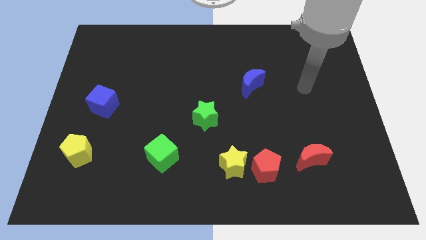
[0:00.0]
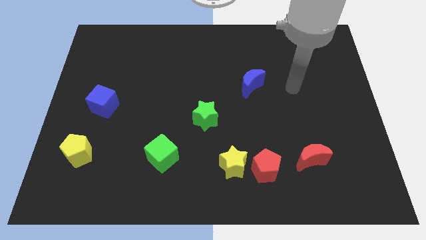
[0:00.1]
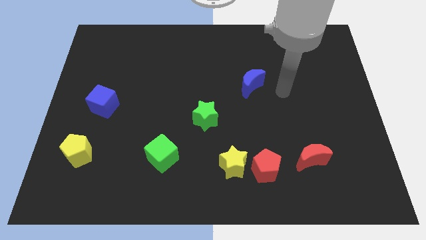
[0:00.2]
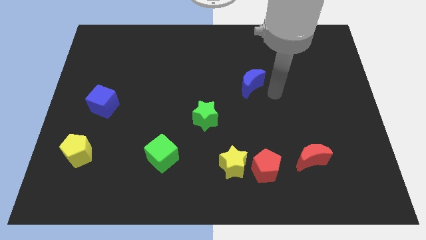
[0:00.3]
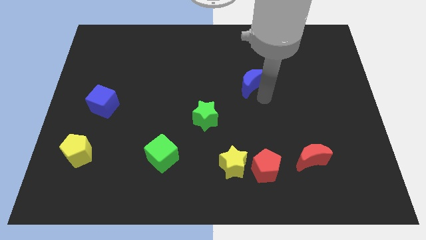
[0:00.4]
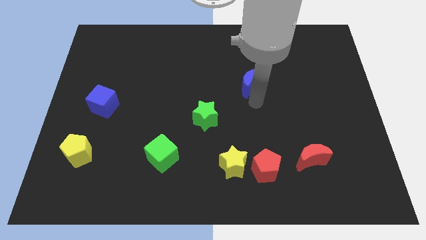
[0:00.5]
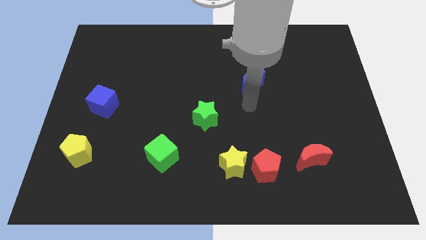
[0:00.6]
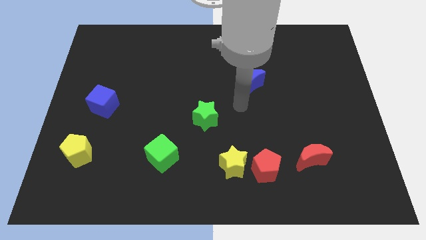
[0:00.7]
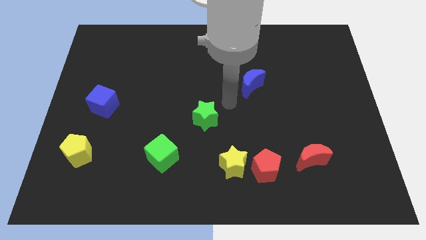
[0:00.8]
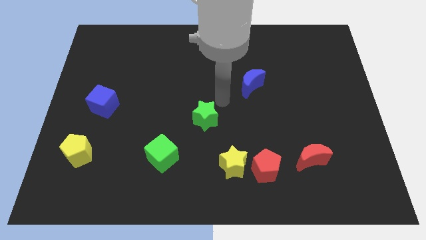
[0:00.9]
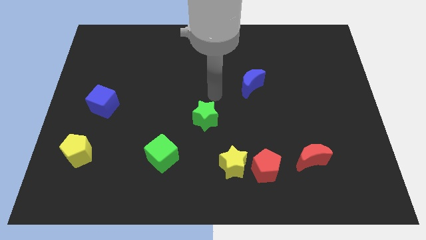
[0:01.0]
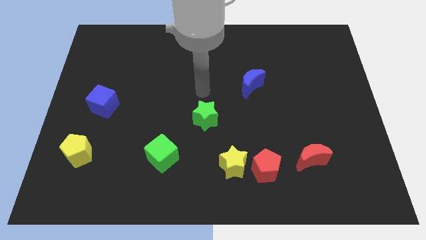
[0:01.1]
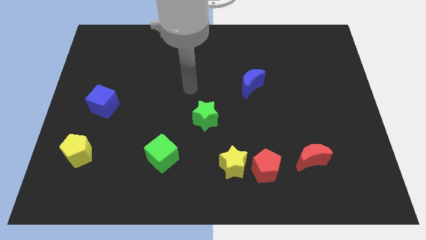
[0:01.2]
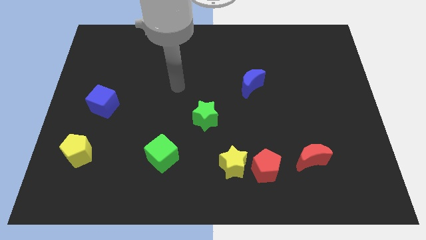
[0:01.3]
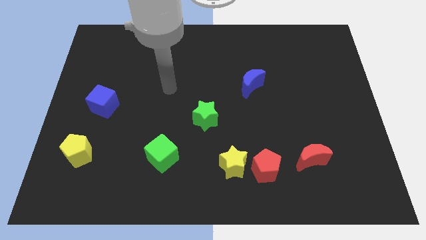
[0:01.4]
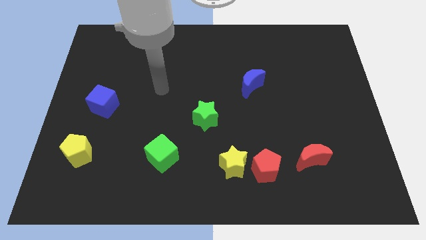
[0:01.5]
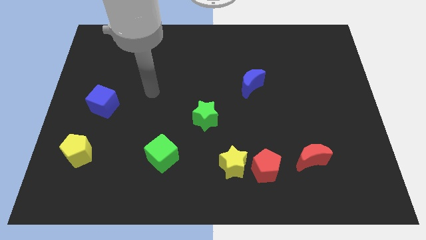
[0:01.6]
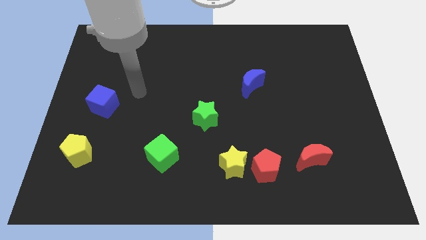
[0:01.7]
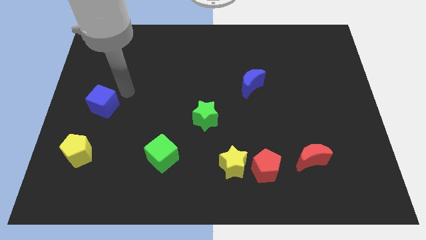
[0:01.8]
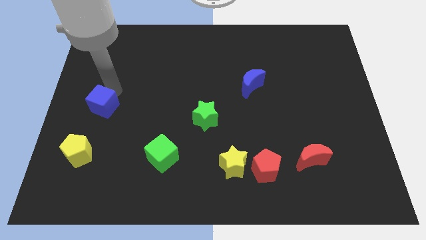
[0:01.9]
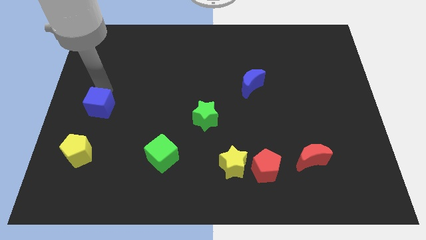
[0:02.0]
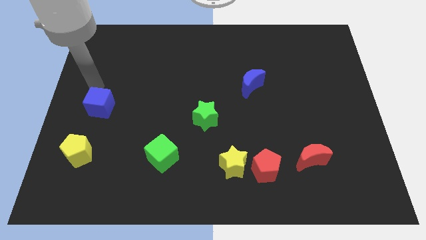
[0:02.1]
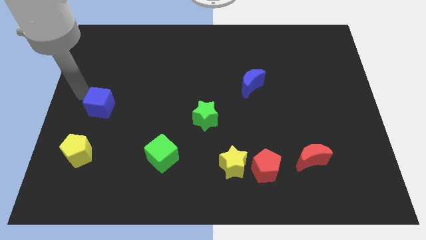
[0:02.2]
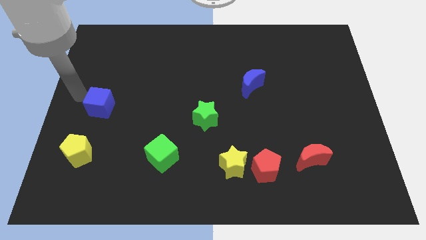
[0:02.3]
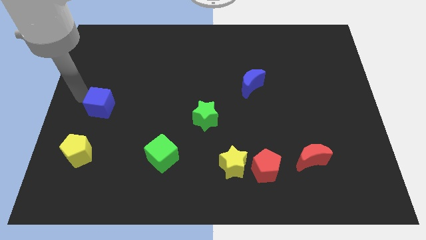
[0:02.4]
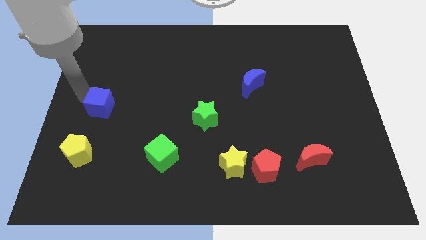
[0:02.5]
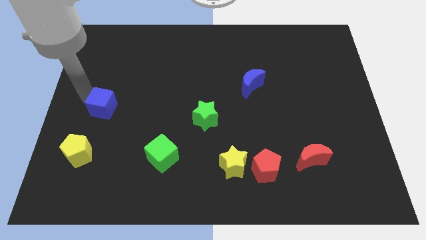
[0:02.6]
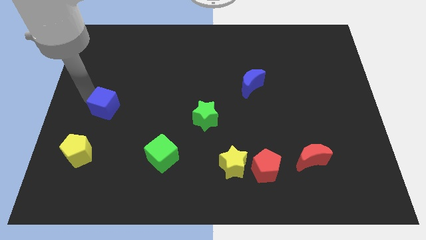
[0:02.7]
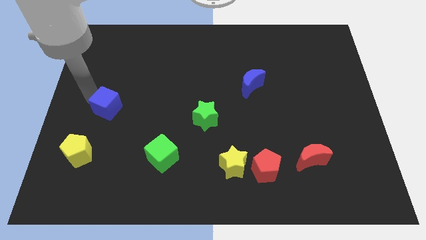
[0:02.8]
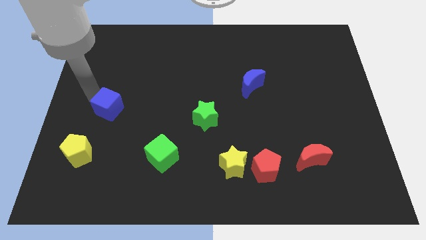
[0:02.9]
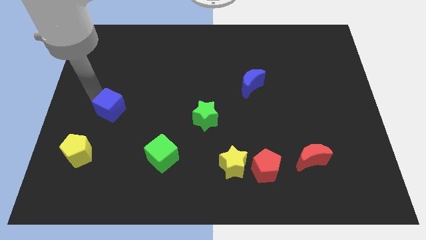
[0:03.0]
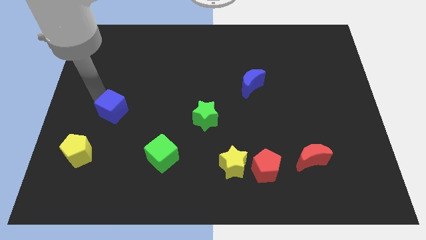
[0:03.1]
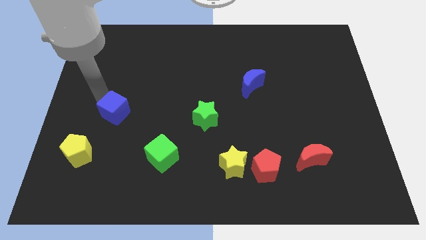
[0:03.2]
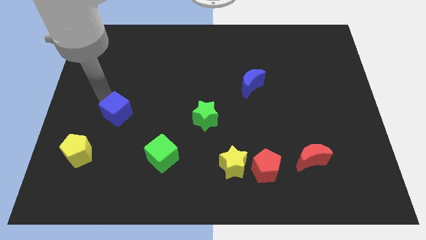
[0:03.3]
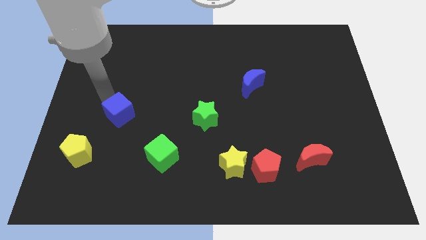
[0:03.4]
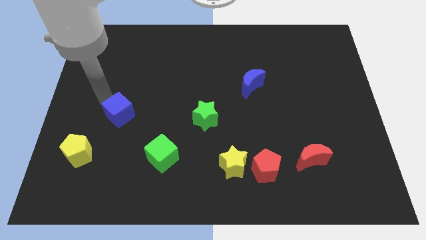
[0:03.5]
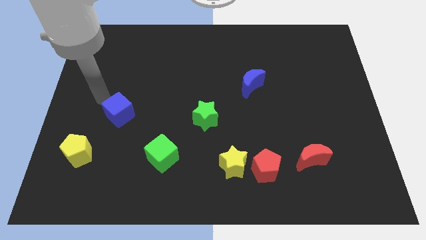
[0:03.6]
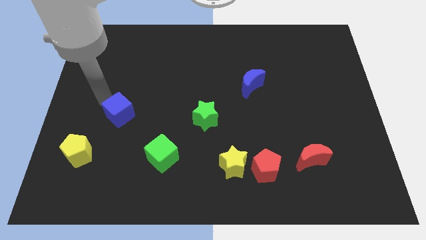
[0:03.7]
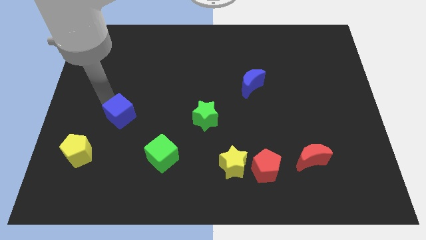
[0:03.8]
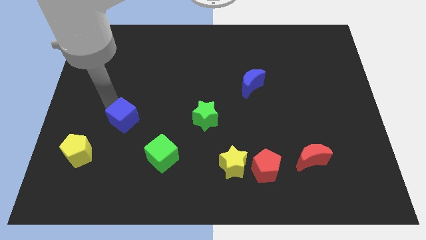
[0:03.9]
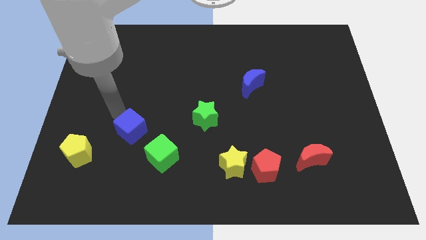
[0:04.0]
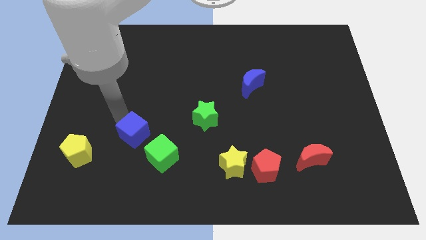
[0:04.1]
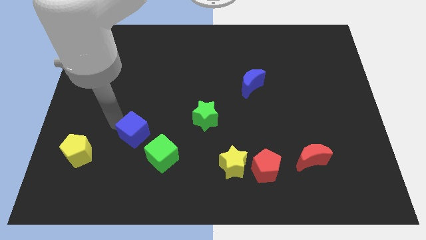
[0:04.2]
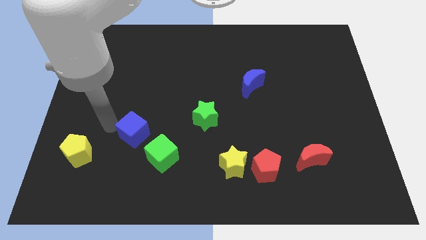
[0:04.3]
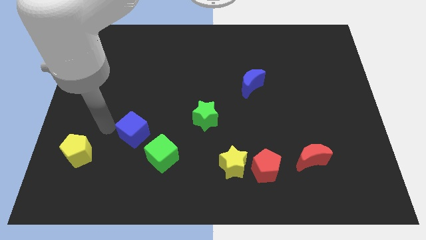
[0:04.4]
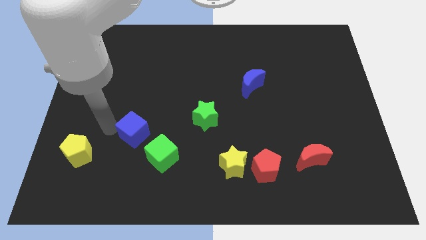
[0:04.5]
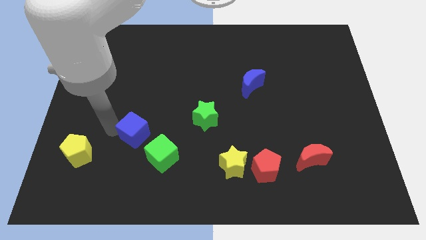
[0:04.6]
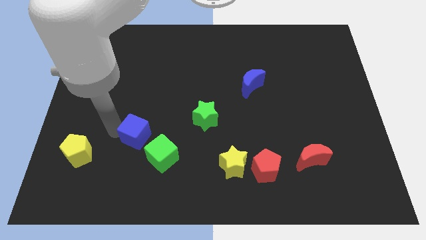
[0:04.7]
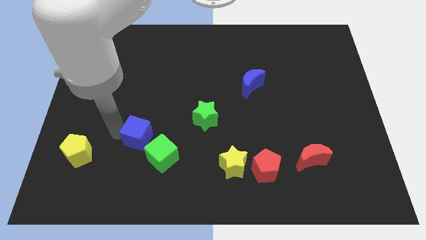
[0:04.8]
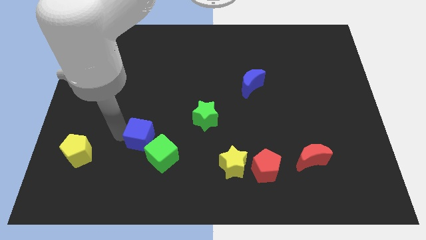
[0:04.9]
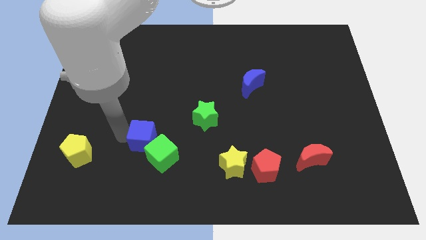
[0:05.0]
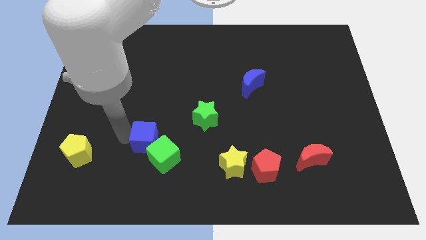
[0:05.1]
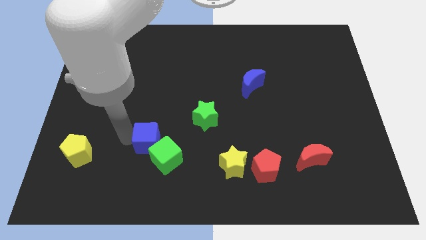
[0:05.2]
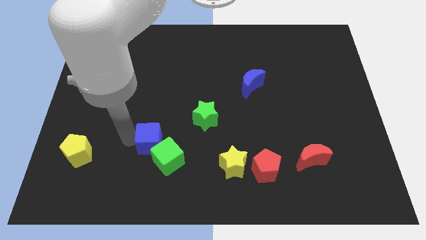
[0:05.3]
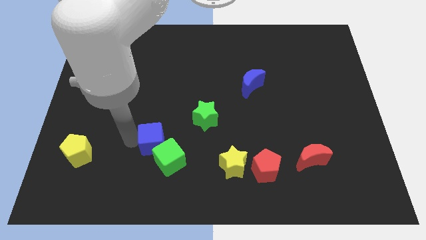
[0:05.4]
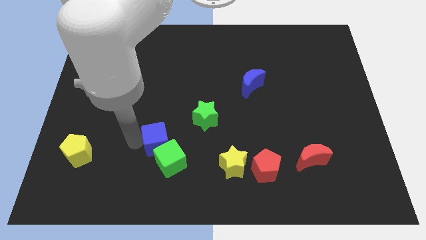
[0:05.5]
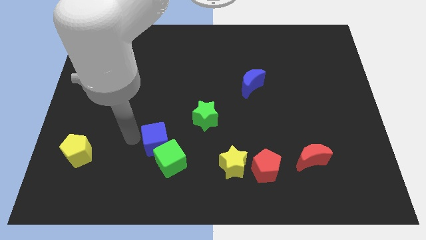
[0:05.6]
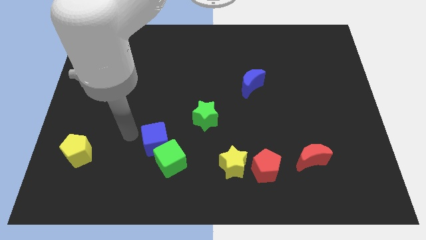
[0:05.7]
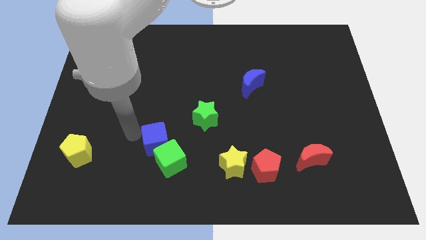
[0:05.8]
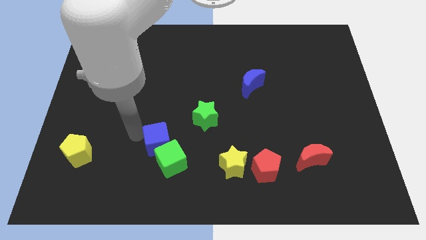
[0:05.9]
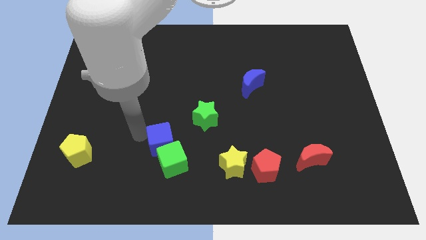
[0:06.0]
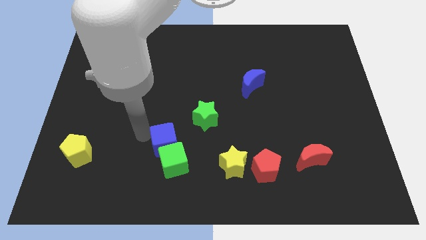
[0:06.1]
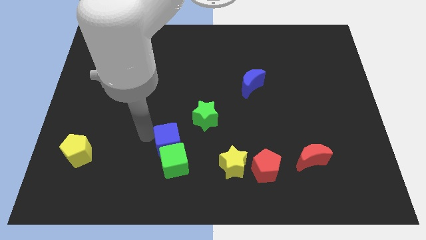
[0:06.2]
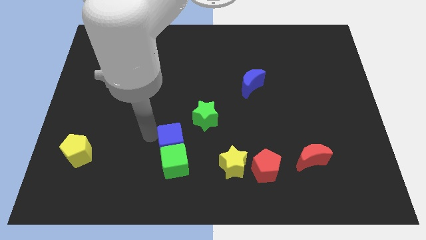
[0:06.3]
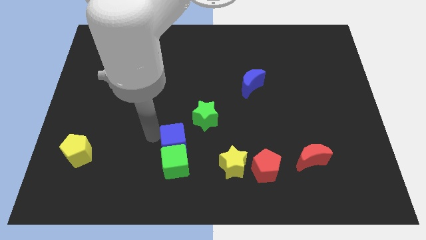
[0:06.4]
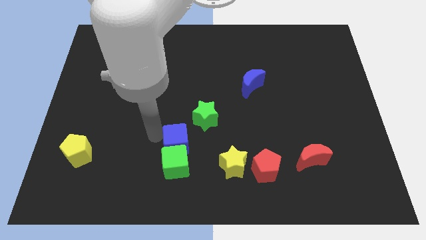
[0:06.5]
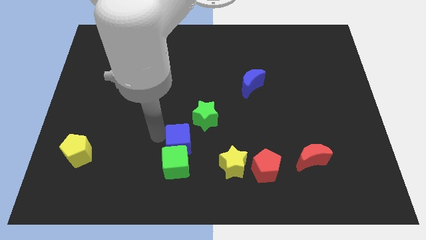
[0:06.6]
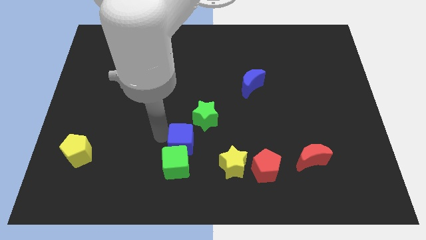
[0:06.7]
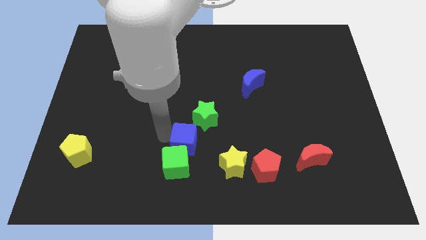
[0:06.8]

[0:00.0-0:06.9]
slide the blue cube below the green star

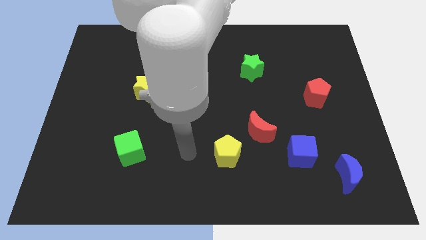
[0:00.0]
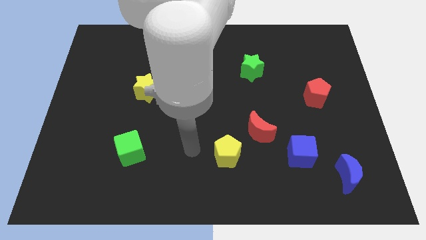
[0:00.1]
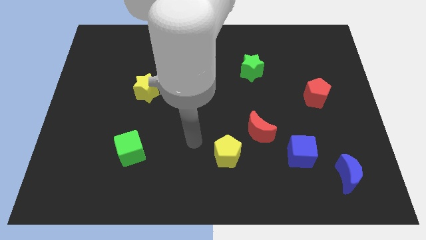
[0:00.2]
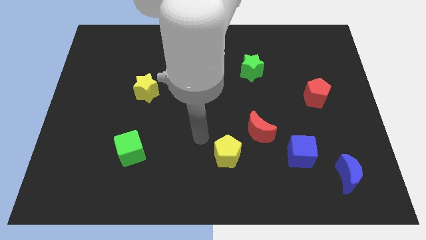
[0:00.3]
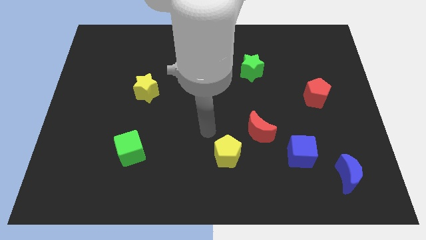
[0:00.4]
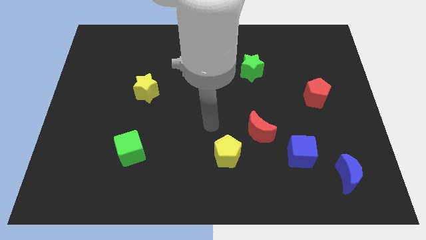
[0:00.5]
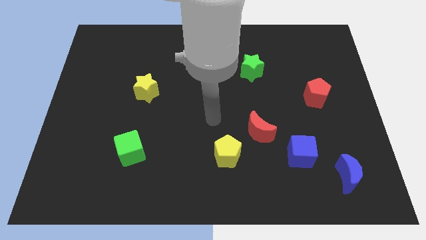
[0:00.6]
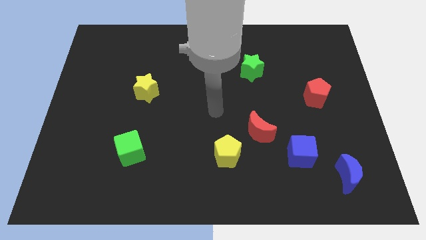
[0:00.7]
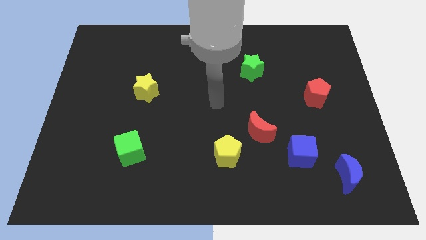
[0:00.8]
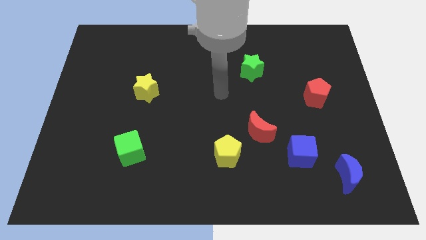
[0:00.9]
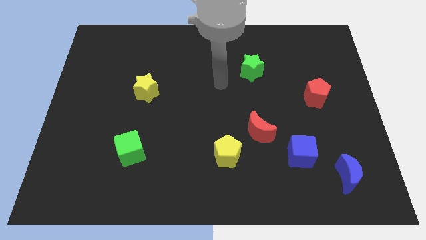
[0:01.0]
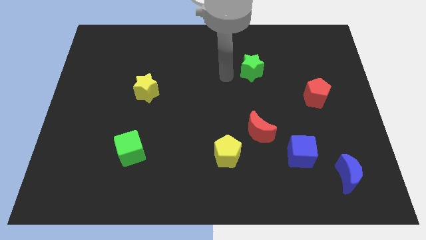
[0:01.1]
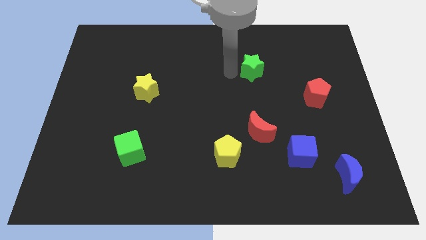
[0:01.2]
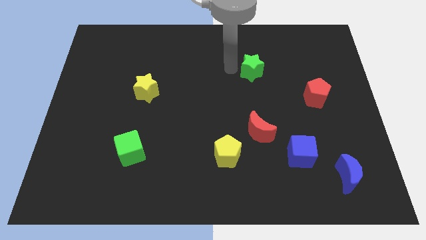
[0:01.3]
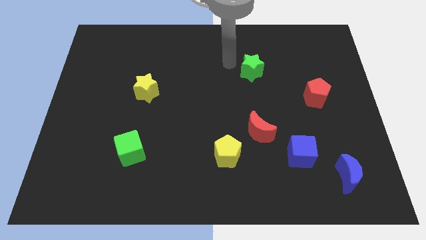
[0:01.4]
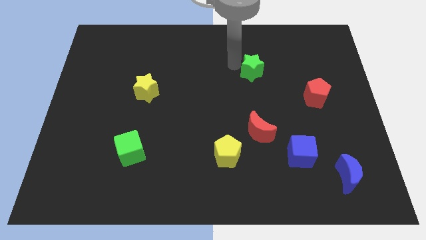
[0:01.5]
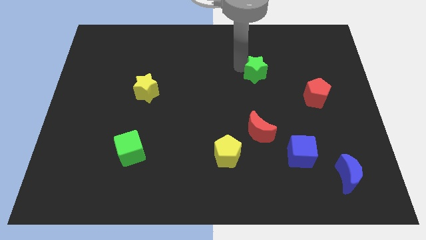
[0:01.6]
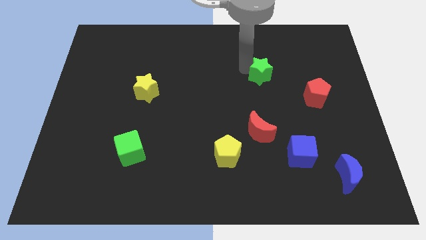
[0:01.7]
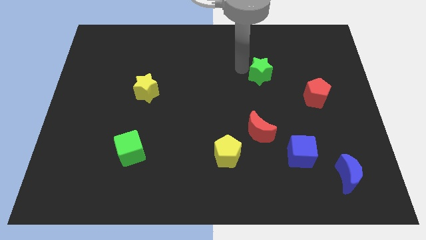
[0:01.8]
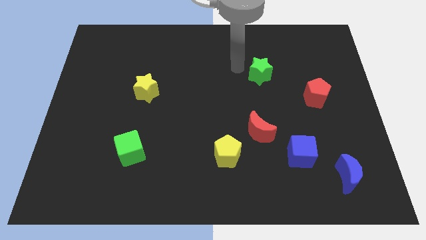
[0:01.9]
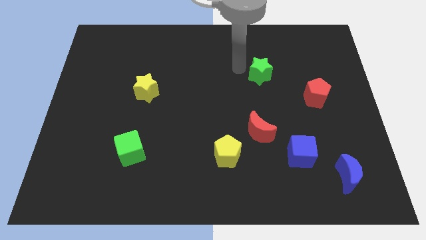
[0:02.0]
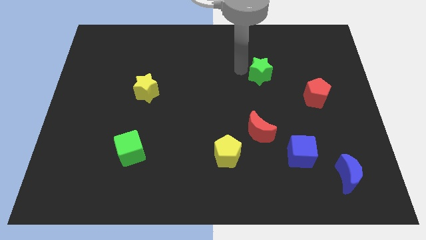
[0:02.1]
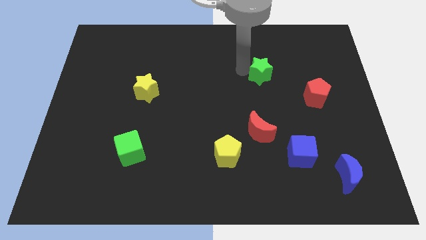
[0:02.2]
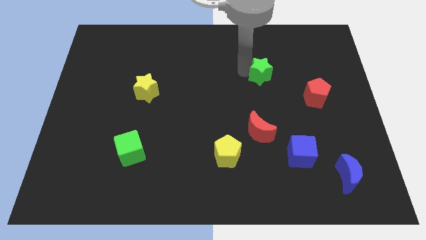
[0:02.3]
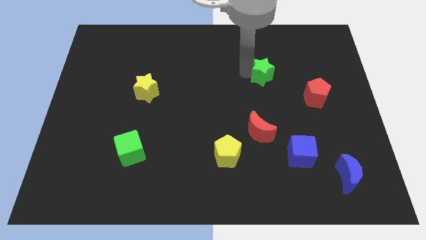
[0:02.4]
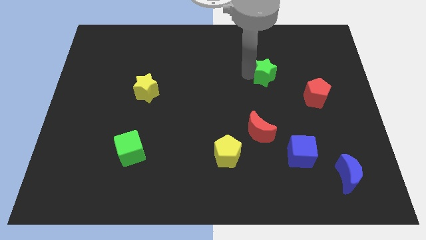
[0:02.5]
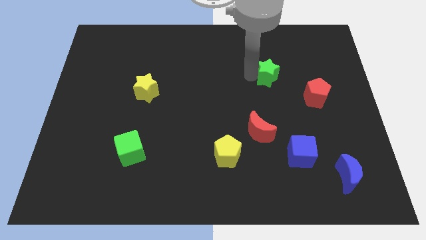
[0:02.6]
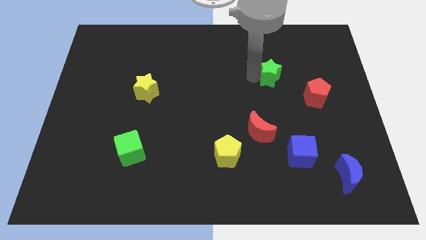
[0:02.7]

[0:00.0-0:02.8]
move the green star to the top left side of the red pentagon
